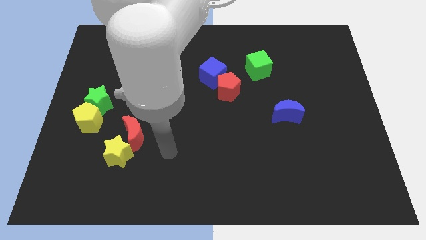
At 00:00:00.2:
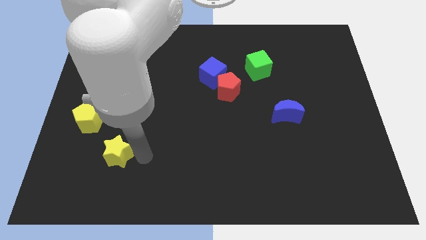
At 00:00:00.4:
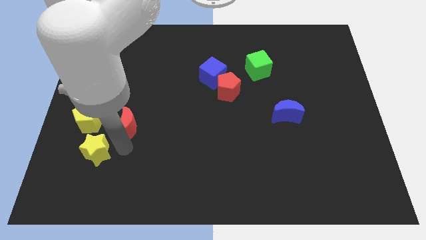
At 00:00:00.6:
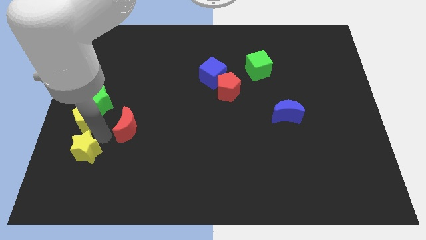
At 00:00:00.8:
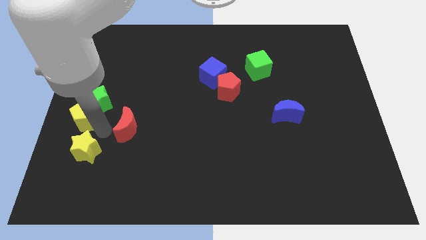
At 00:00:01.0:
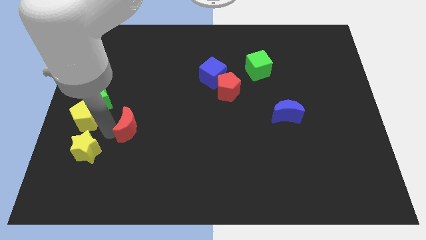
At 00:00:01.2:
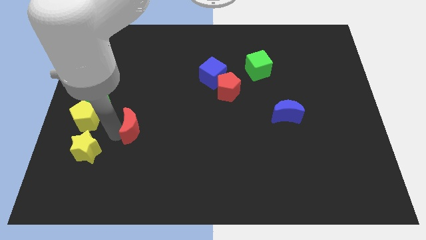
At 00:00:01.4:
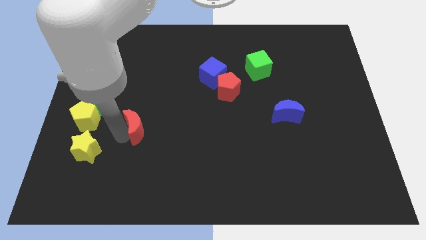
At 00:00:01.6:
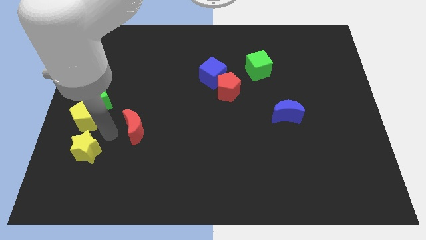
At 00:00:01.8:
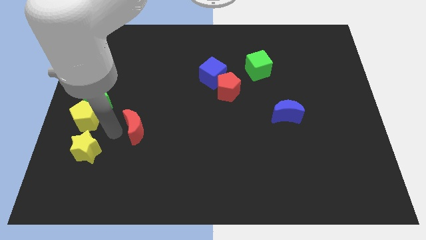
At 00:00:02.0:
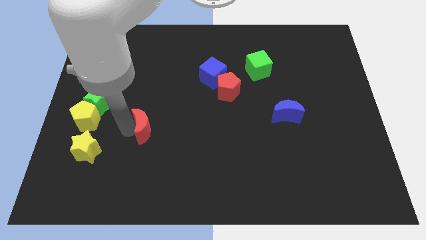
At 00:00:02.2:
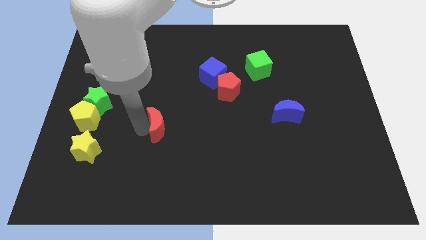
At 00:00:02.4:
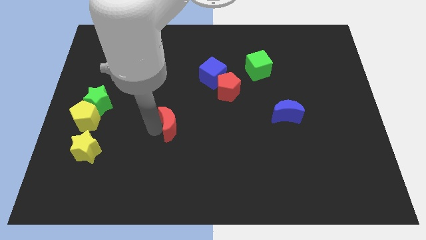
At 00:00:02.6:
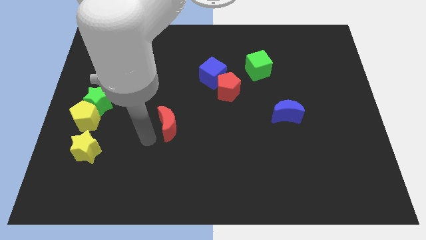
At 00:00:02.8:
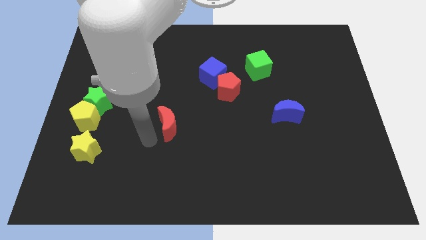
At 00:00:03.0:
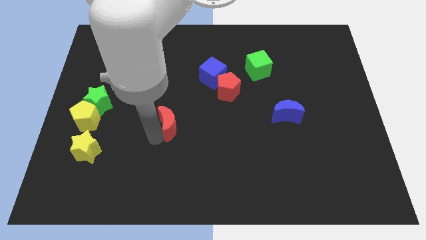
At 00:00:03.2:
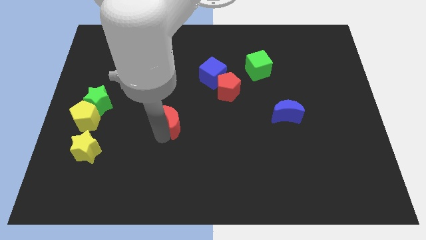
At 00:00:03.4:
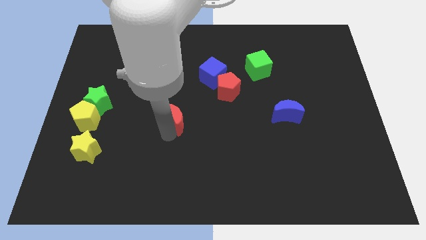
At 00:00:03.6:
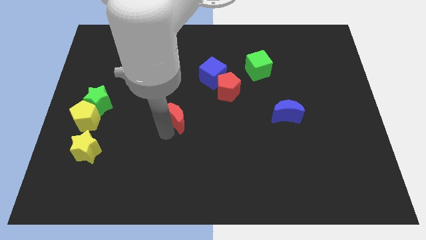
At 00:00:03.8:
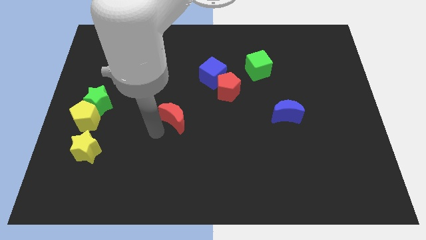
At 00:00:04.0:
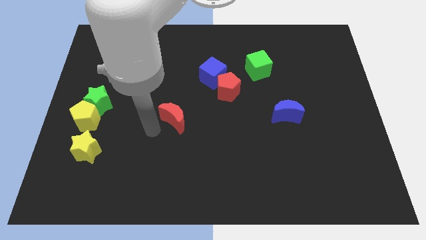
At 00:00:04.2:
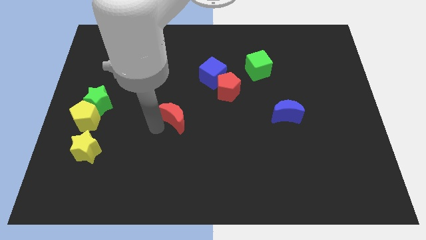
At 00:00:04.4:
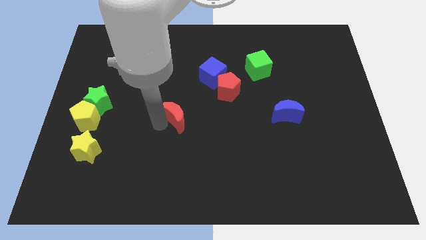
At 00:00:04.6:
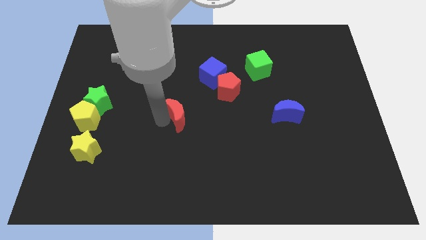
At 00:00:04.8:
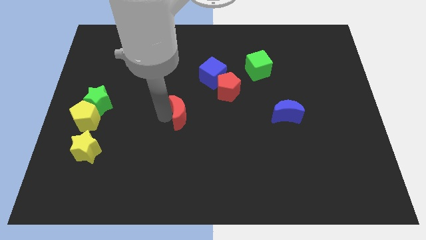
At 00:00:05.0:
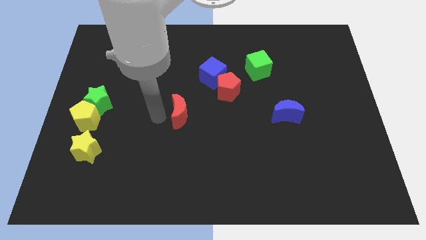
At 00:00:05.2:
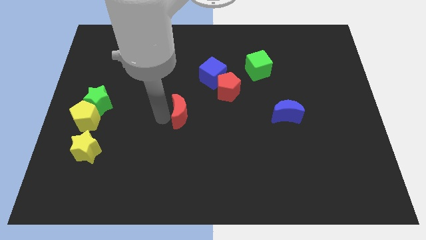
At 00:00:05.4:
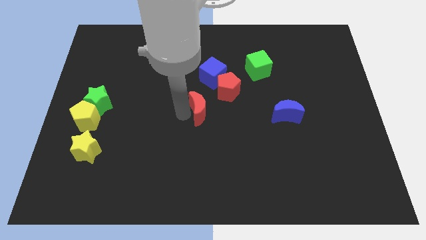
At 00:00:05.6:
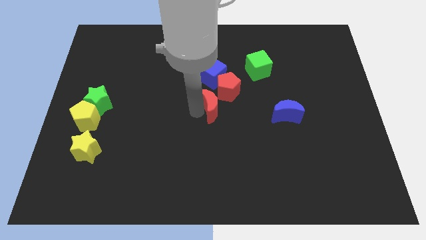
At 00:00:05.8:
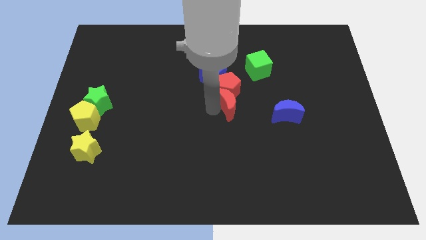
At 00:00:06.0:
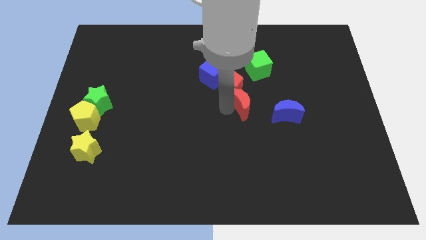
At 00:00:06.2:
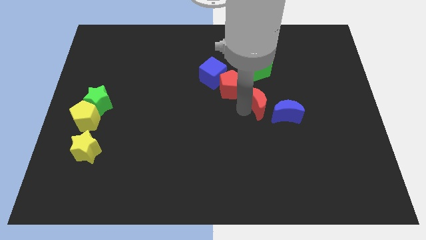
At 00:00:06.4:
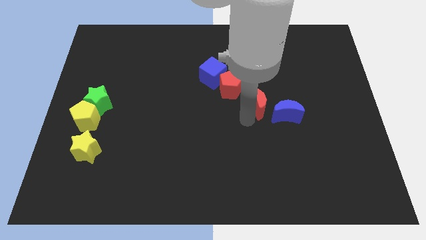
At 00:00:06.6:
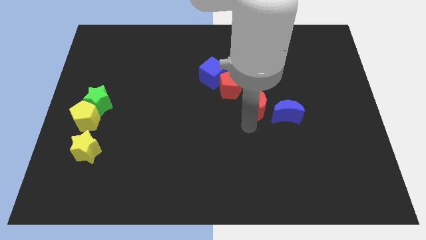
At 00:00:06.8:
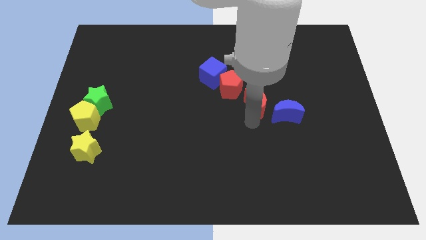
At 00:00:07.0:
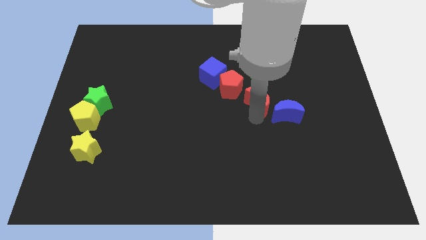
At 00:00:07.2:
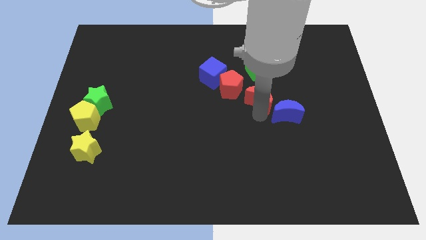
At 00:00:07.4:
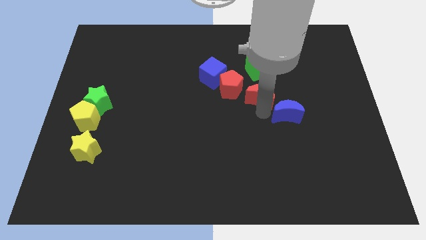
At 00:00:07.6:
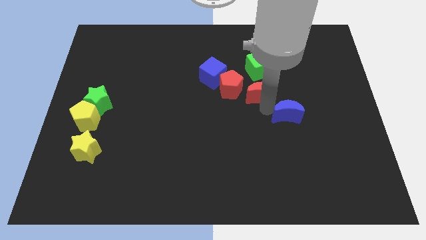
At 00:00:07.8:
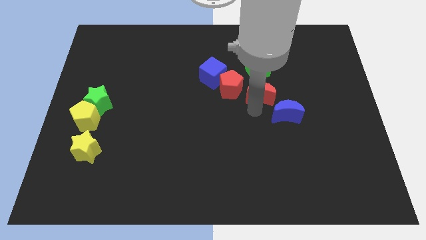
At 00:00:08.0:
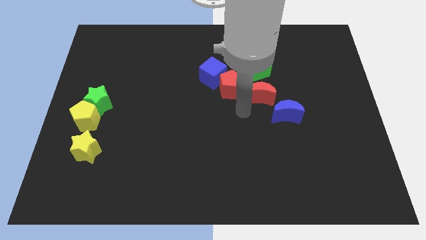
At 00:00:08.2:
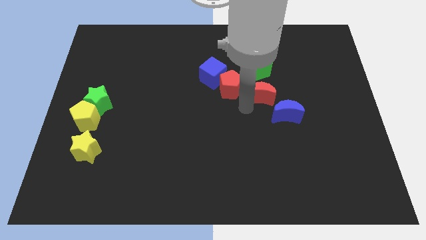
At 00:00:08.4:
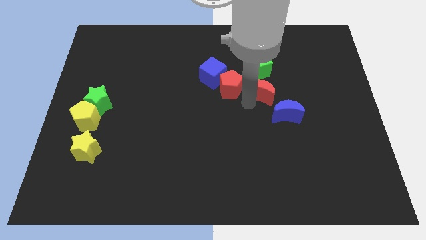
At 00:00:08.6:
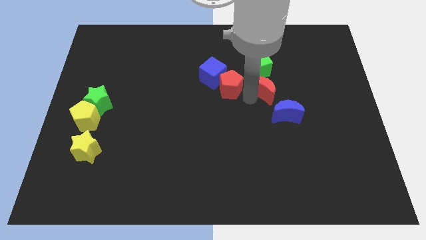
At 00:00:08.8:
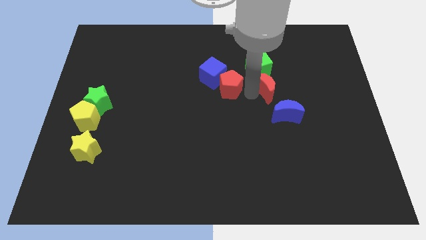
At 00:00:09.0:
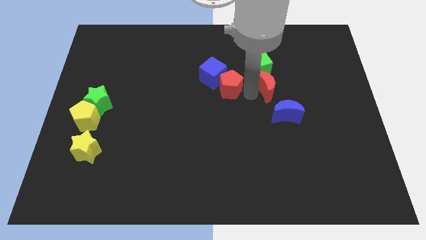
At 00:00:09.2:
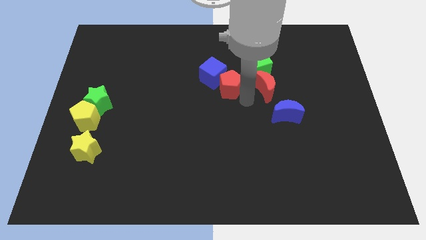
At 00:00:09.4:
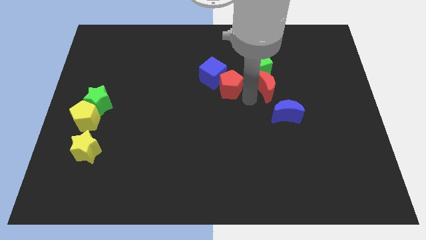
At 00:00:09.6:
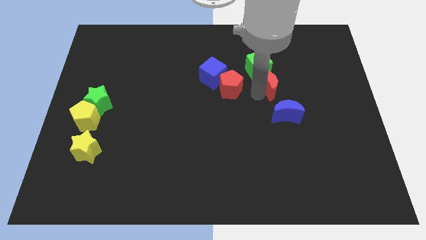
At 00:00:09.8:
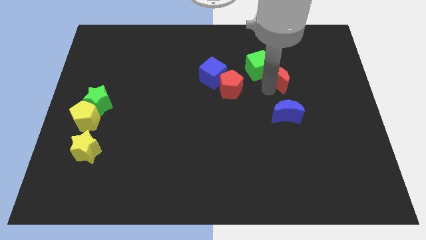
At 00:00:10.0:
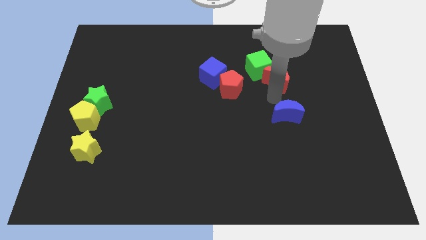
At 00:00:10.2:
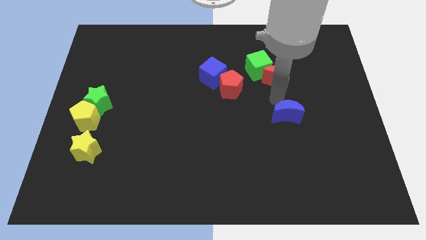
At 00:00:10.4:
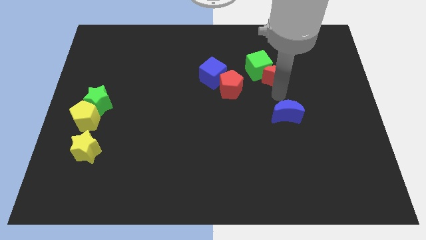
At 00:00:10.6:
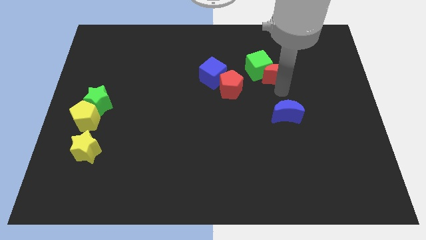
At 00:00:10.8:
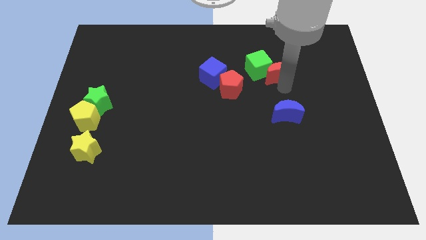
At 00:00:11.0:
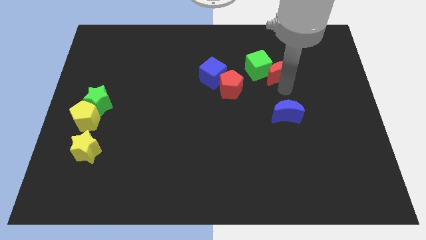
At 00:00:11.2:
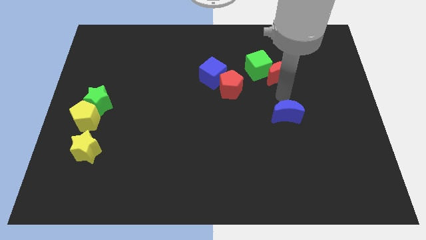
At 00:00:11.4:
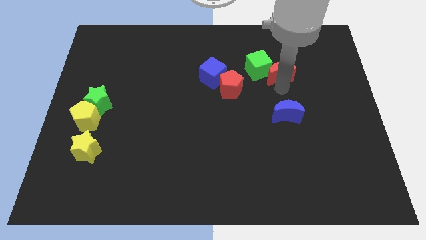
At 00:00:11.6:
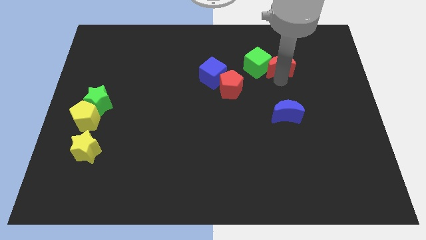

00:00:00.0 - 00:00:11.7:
slide the red moon diagonally up and to the right of the green cube

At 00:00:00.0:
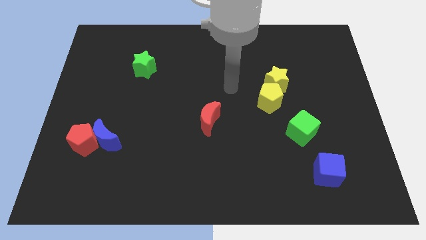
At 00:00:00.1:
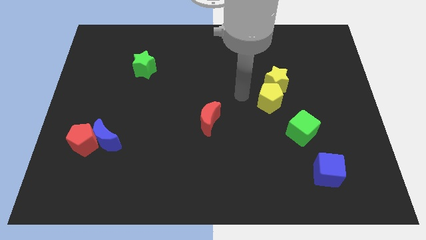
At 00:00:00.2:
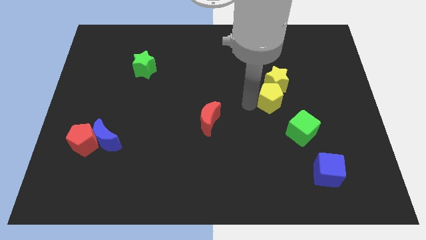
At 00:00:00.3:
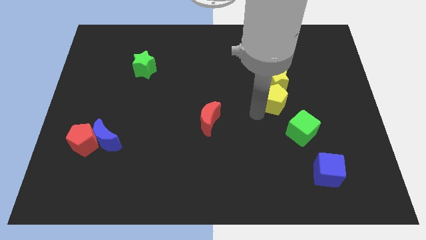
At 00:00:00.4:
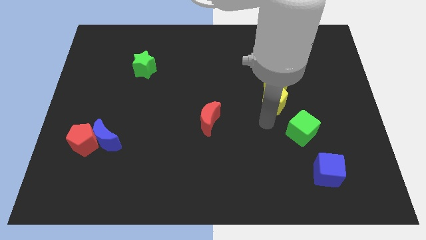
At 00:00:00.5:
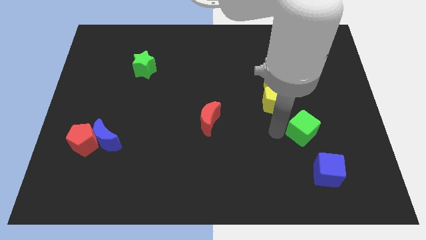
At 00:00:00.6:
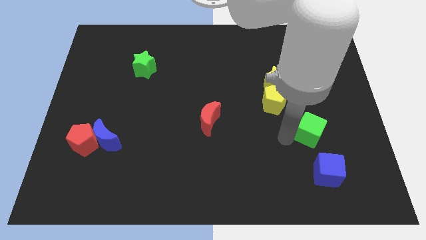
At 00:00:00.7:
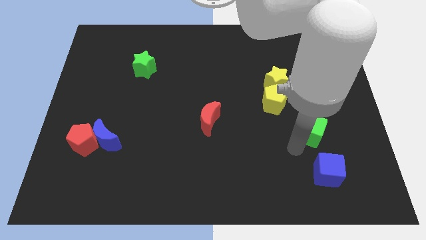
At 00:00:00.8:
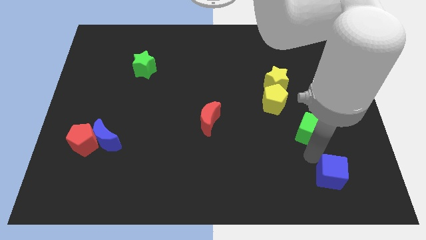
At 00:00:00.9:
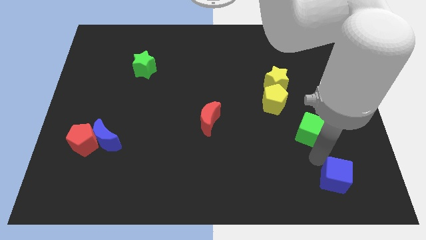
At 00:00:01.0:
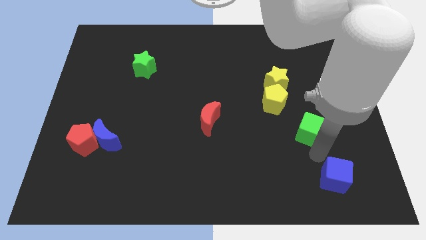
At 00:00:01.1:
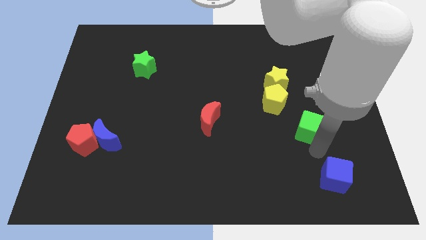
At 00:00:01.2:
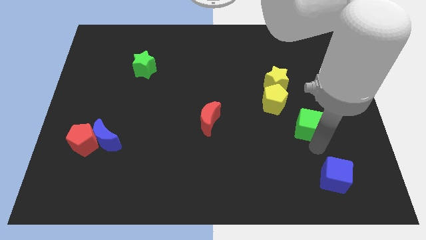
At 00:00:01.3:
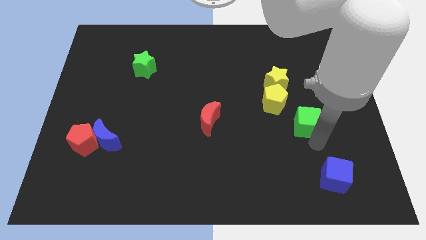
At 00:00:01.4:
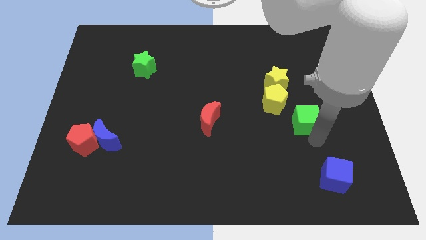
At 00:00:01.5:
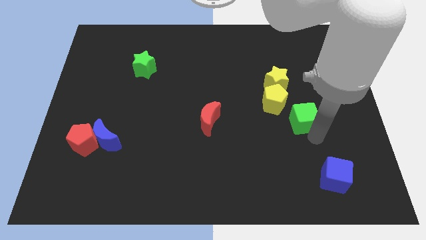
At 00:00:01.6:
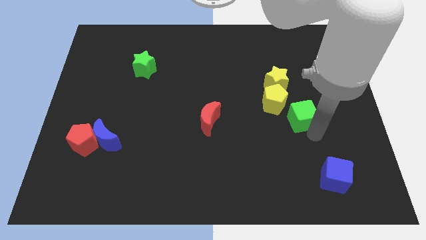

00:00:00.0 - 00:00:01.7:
put the green cube to the bottom right side of the yellow star
